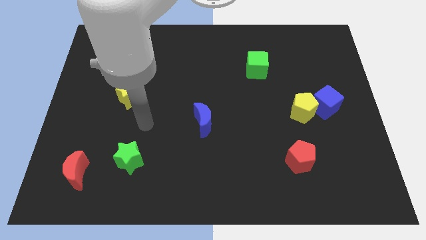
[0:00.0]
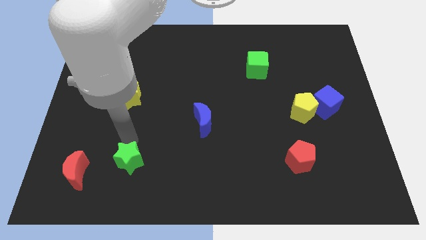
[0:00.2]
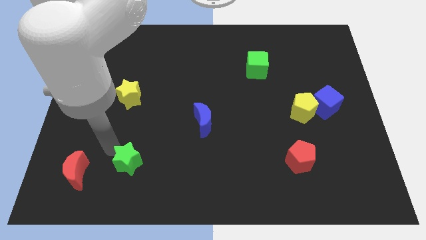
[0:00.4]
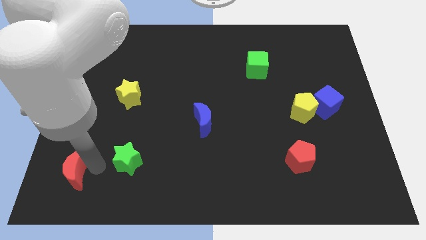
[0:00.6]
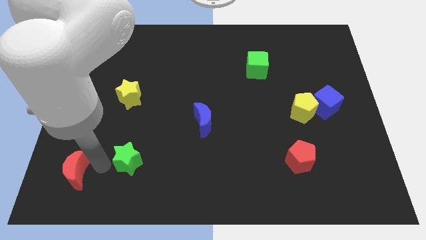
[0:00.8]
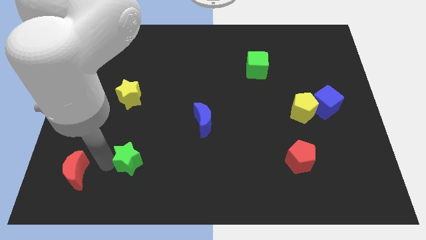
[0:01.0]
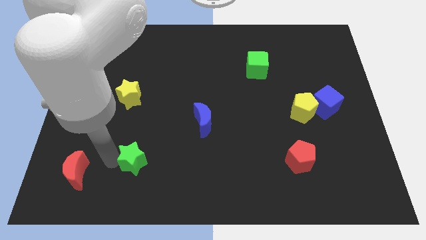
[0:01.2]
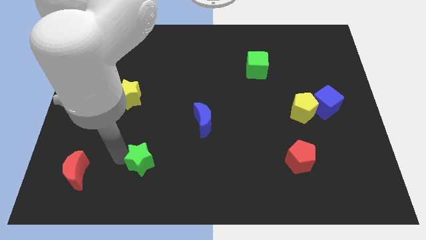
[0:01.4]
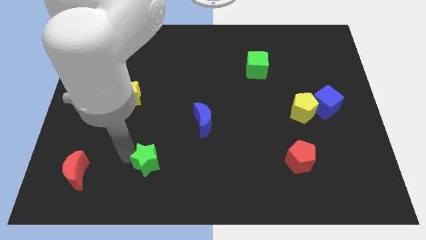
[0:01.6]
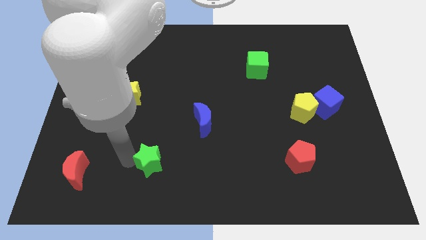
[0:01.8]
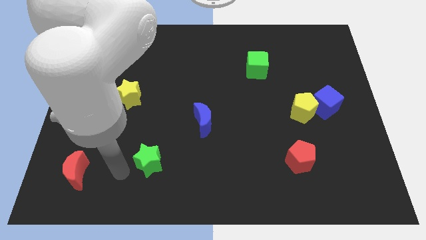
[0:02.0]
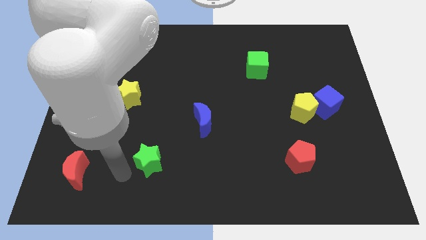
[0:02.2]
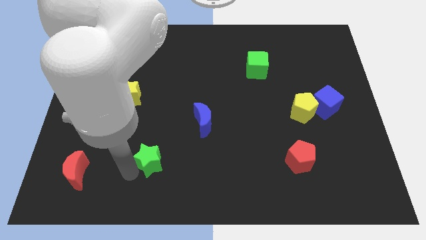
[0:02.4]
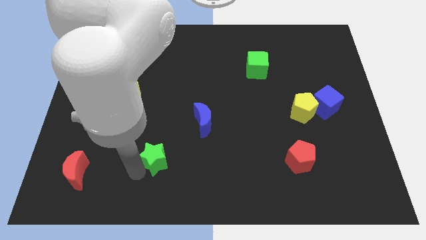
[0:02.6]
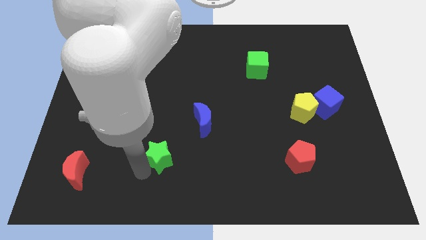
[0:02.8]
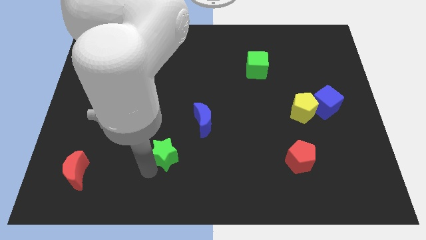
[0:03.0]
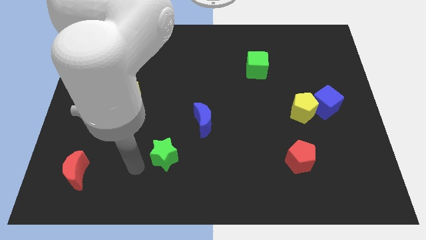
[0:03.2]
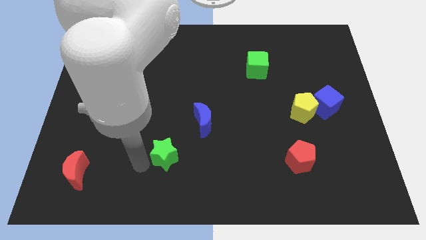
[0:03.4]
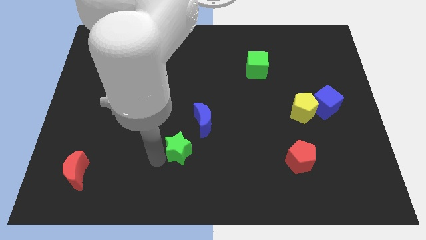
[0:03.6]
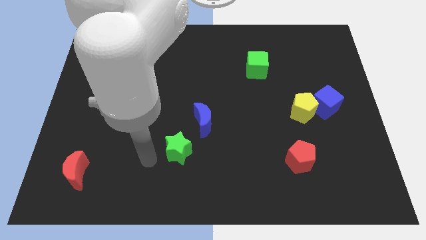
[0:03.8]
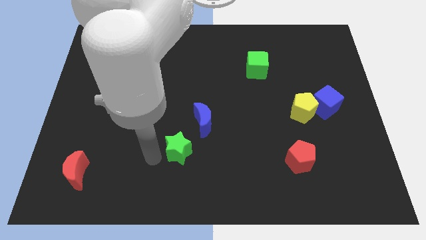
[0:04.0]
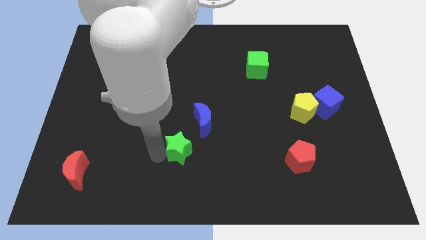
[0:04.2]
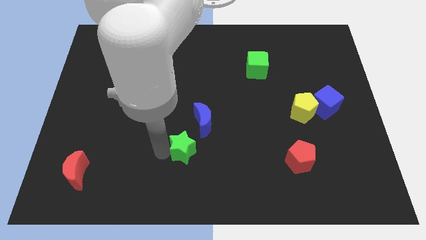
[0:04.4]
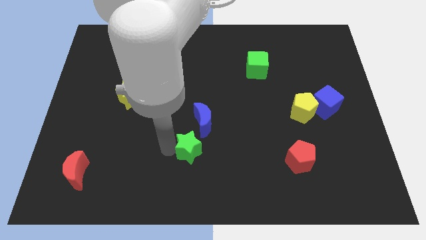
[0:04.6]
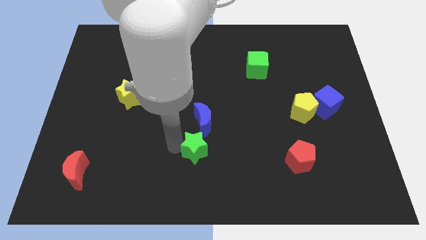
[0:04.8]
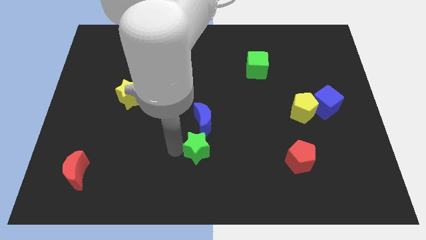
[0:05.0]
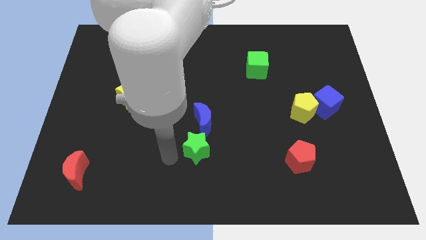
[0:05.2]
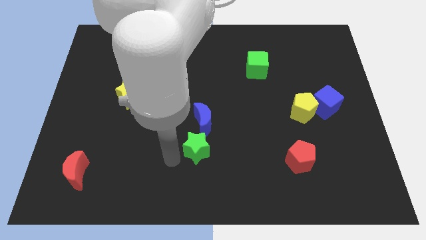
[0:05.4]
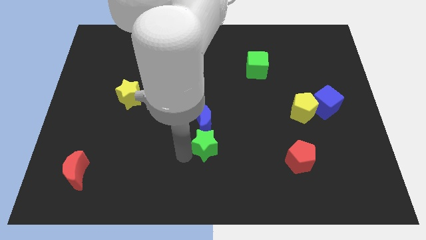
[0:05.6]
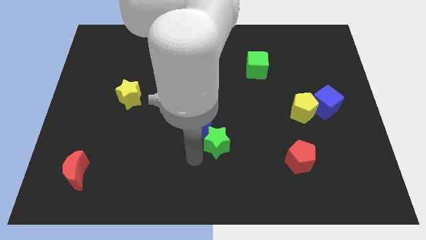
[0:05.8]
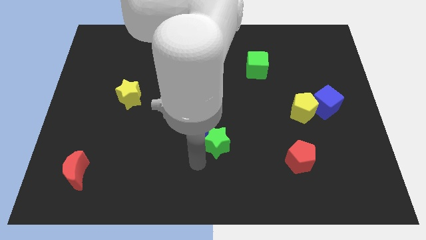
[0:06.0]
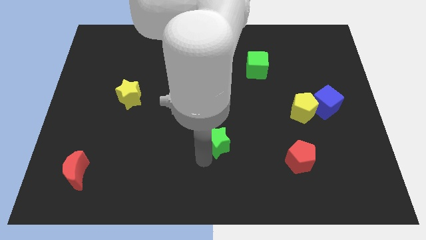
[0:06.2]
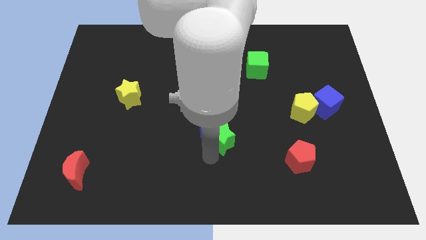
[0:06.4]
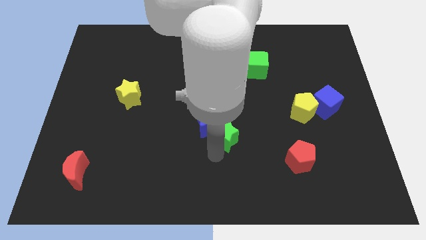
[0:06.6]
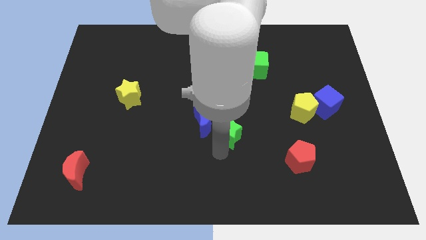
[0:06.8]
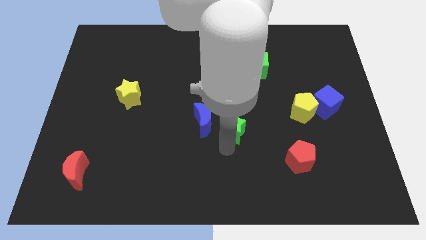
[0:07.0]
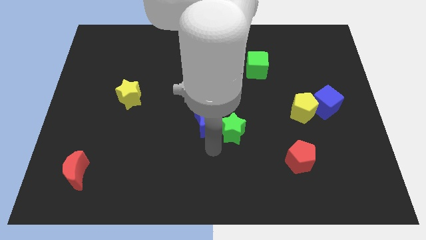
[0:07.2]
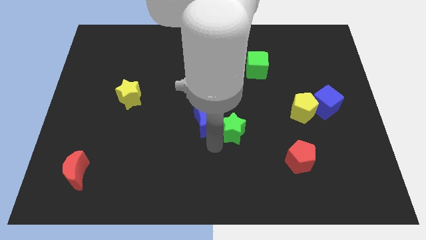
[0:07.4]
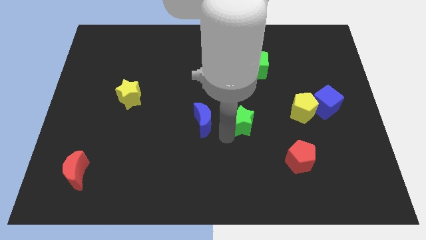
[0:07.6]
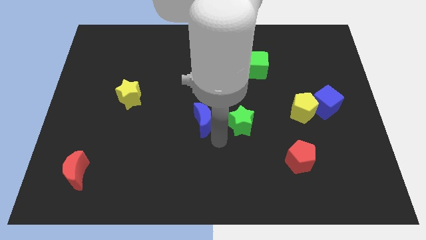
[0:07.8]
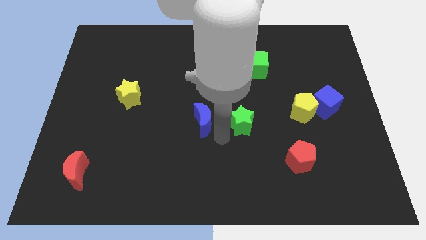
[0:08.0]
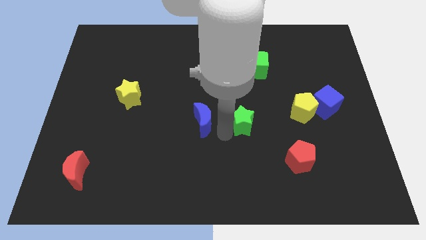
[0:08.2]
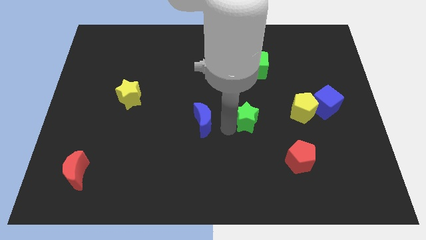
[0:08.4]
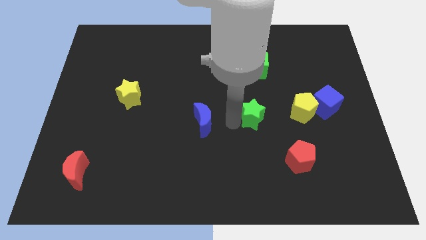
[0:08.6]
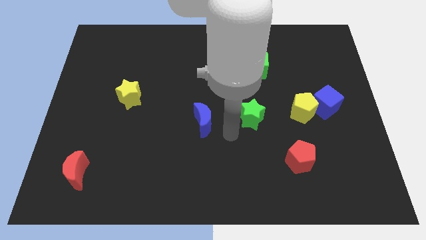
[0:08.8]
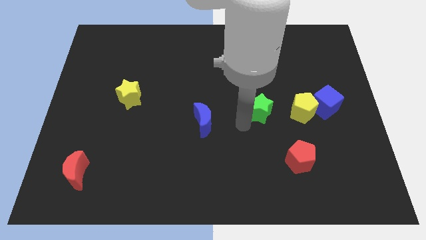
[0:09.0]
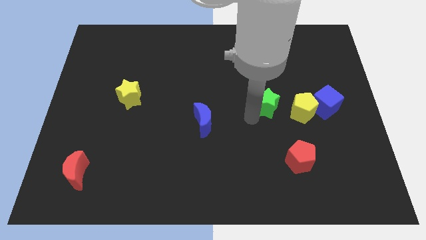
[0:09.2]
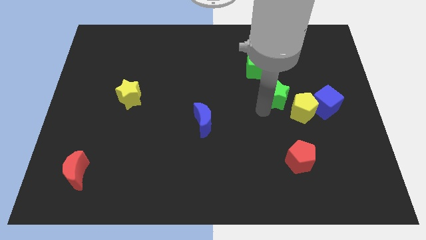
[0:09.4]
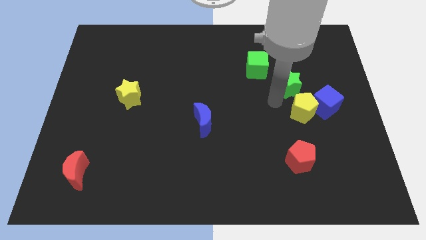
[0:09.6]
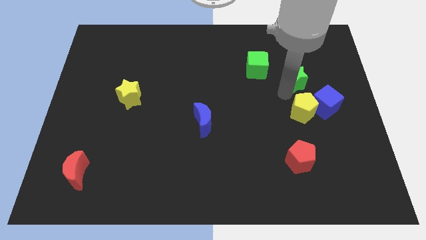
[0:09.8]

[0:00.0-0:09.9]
move the green star right of the green cube

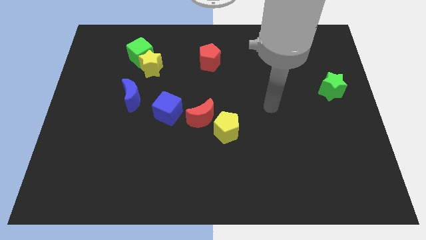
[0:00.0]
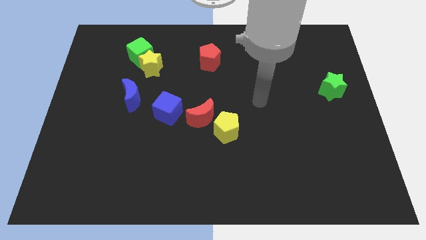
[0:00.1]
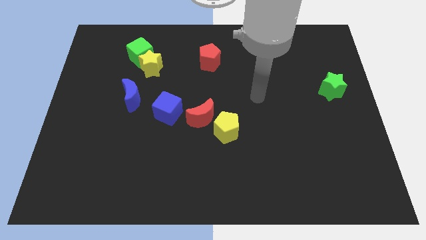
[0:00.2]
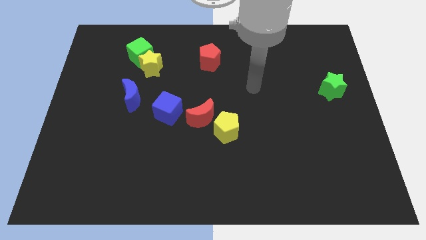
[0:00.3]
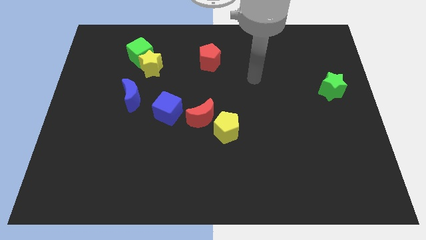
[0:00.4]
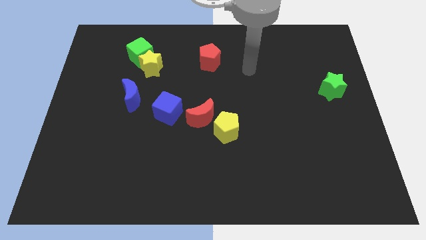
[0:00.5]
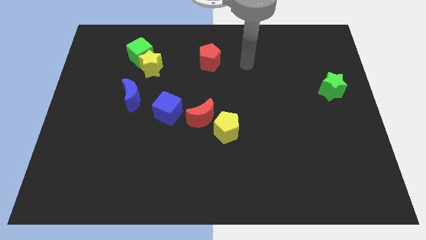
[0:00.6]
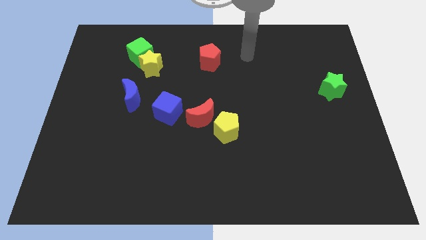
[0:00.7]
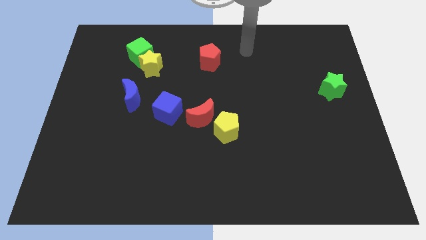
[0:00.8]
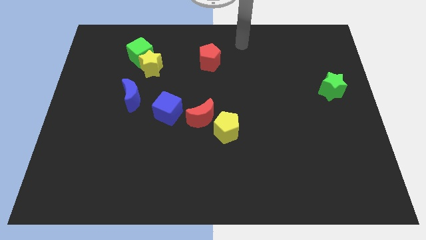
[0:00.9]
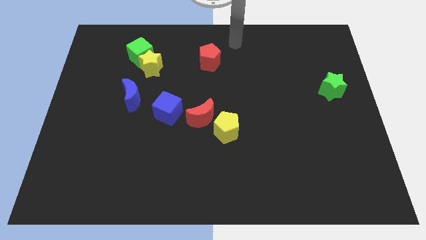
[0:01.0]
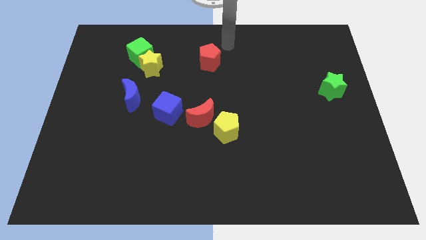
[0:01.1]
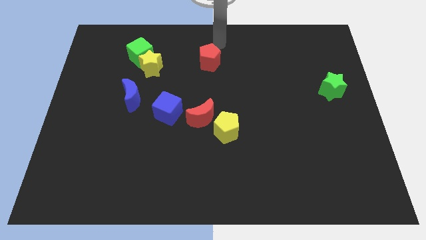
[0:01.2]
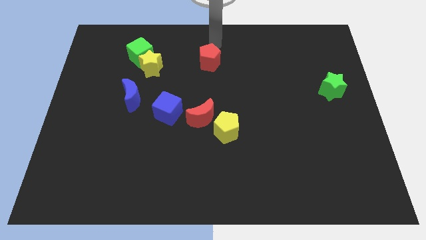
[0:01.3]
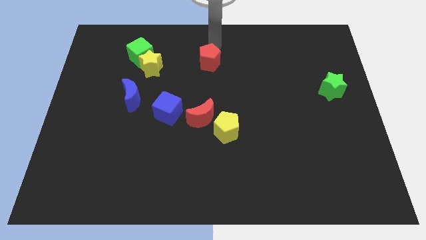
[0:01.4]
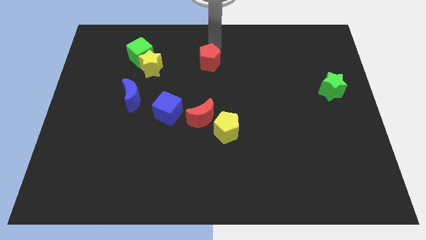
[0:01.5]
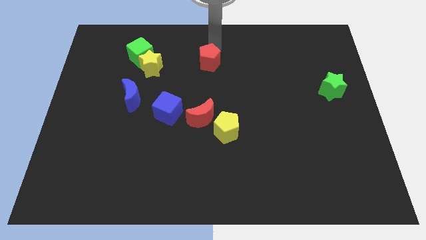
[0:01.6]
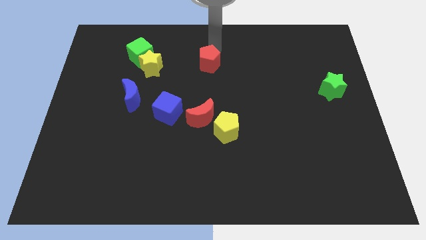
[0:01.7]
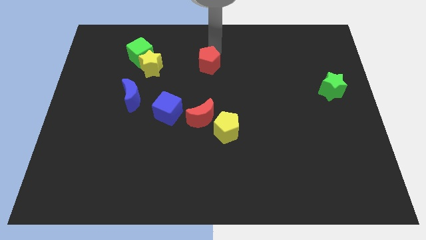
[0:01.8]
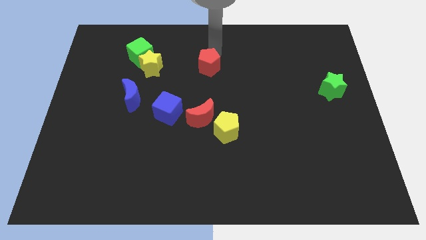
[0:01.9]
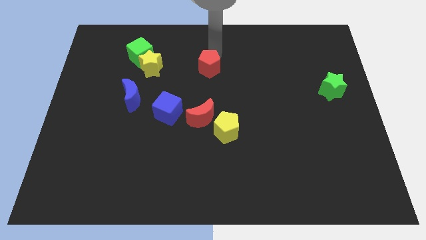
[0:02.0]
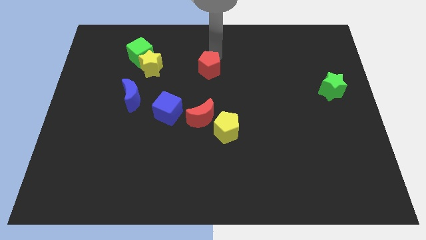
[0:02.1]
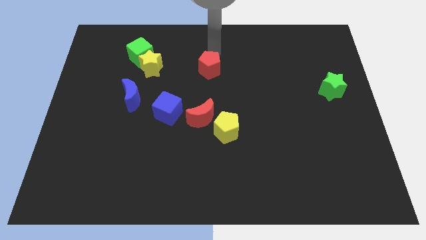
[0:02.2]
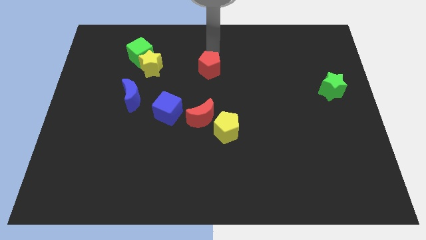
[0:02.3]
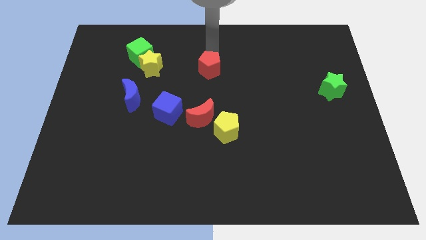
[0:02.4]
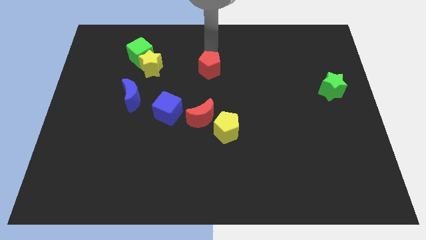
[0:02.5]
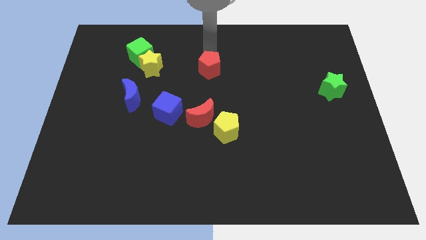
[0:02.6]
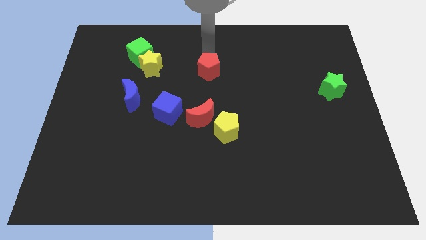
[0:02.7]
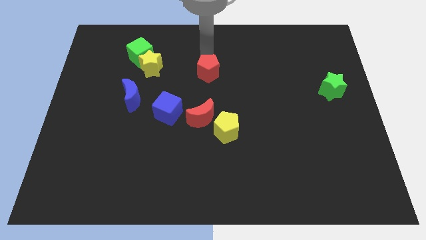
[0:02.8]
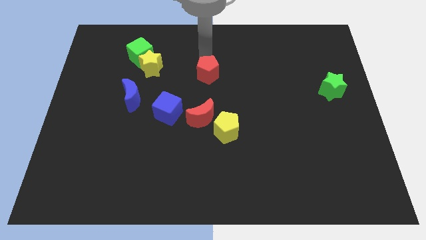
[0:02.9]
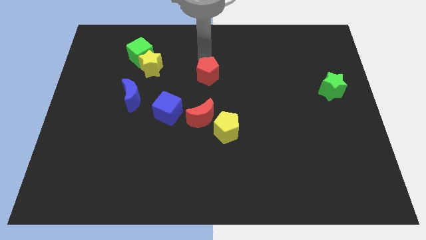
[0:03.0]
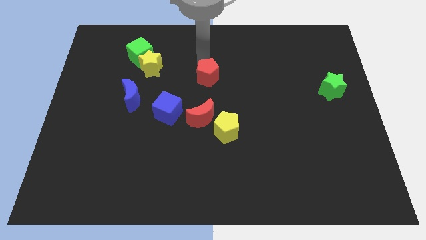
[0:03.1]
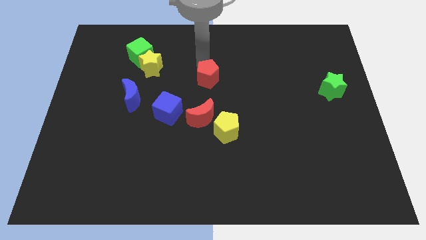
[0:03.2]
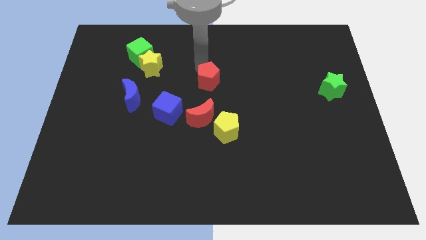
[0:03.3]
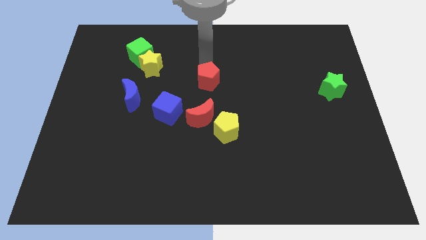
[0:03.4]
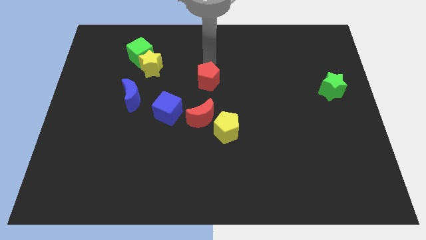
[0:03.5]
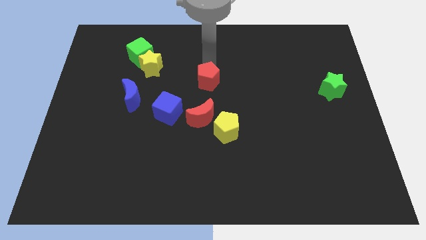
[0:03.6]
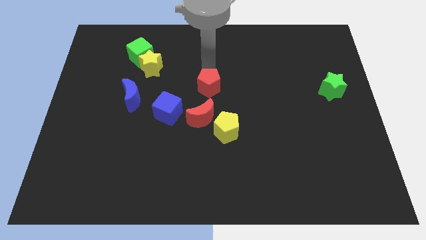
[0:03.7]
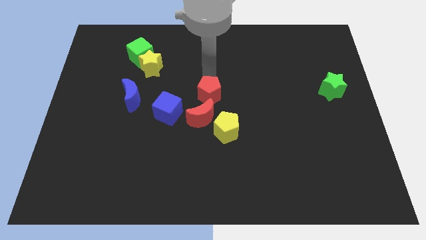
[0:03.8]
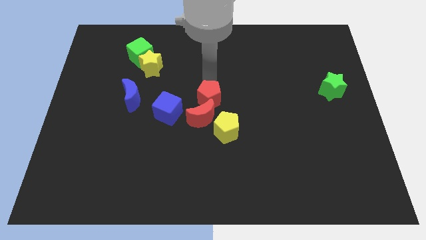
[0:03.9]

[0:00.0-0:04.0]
move the red pentagon to the top left side of the yellow pentagon
